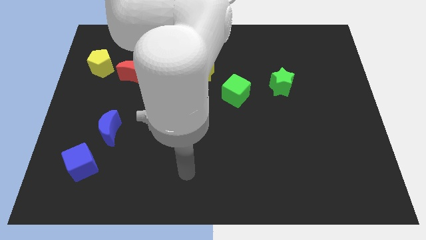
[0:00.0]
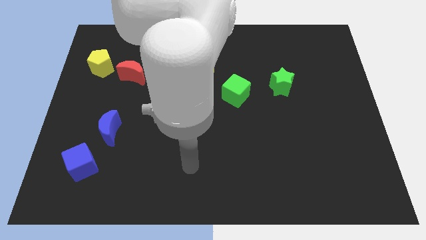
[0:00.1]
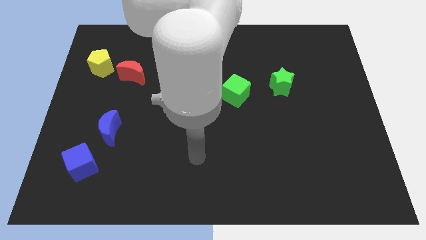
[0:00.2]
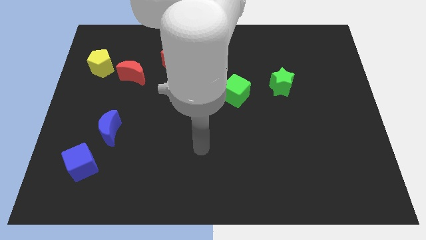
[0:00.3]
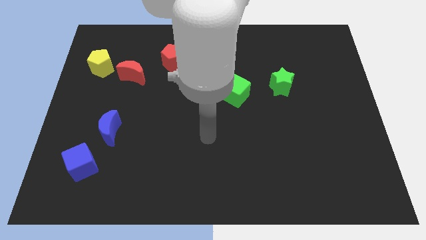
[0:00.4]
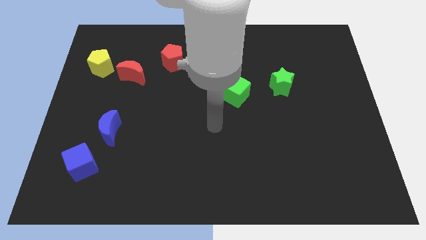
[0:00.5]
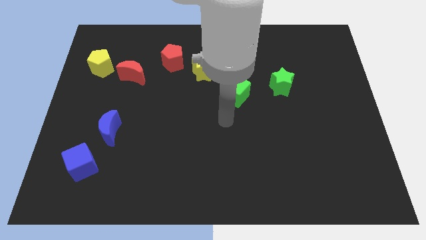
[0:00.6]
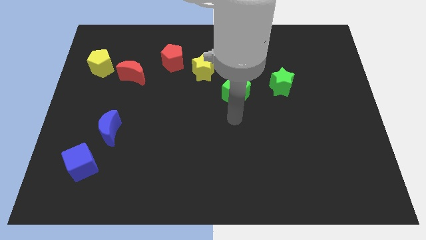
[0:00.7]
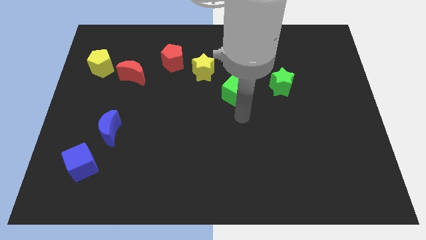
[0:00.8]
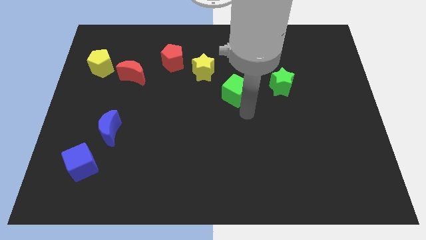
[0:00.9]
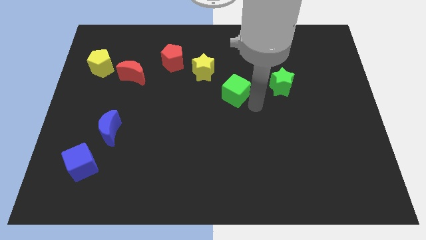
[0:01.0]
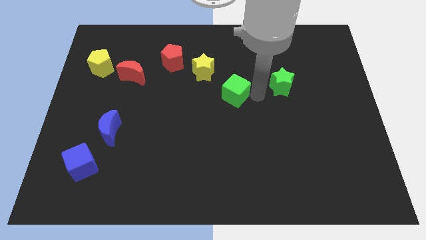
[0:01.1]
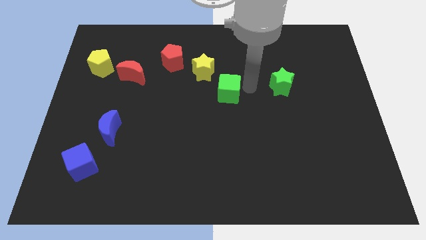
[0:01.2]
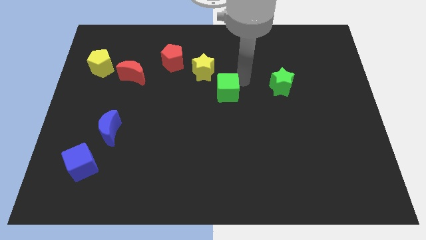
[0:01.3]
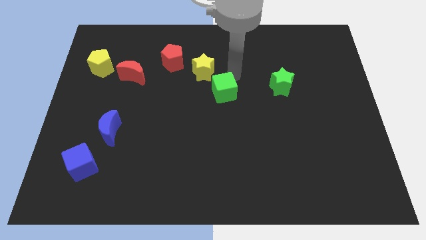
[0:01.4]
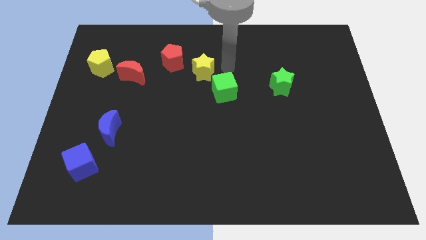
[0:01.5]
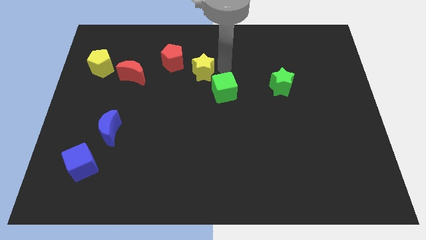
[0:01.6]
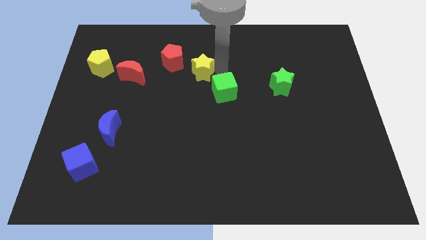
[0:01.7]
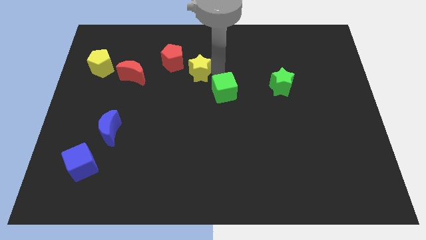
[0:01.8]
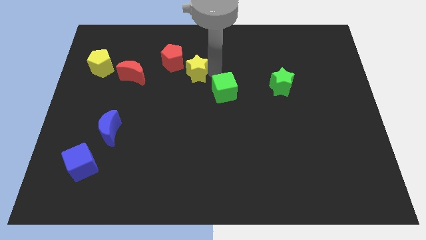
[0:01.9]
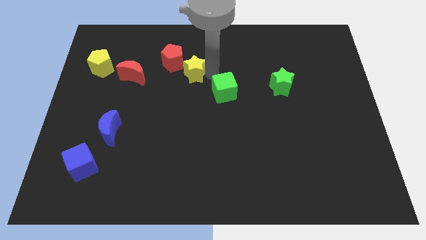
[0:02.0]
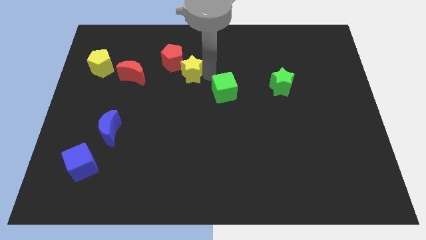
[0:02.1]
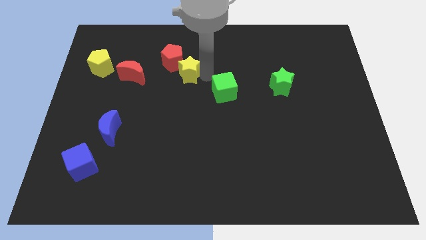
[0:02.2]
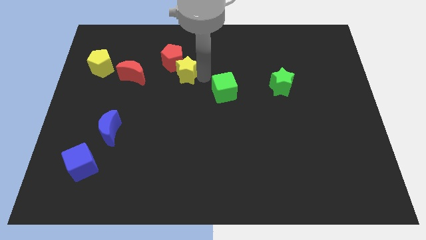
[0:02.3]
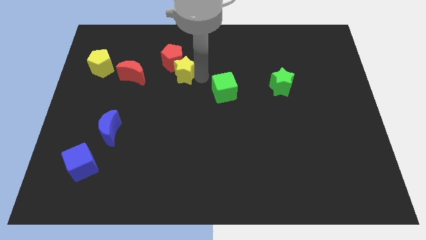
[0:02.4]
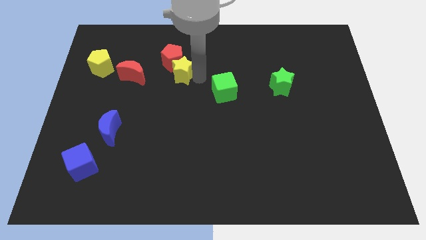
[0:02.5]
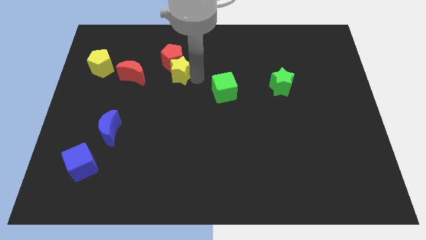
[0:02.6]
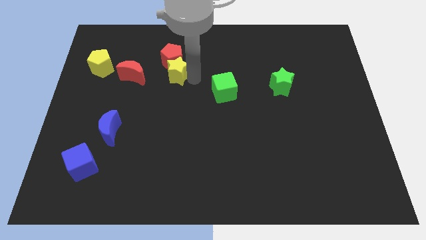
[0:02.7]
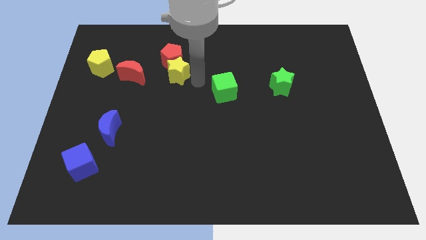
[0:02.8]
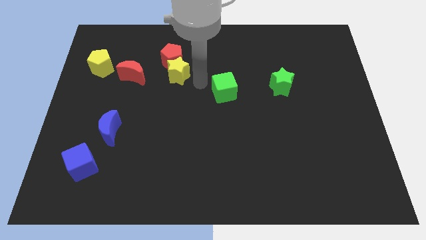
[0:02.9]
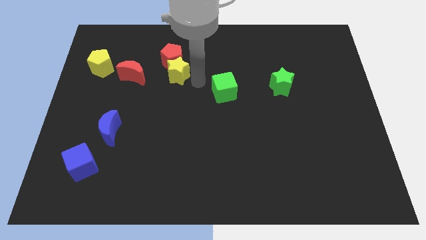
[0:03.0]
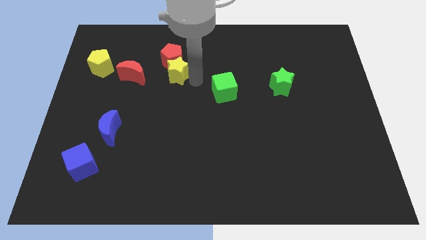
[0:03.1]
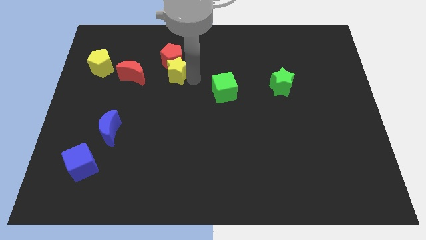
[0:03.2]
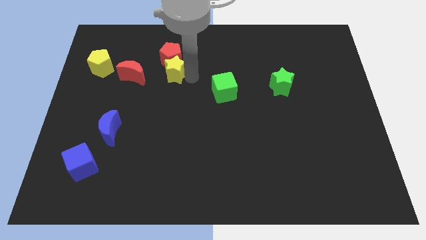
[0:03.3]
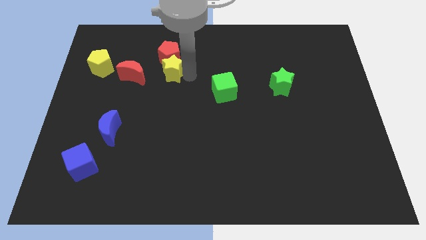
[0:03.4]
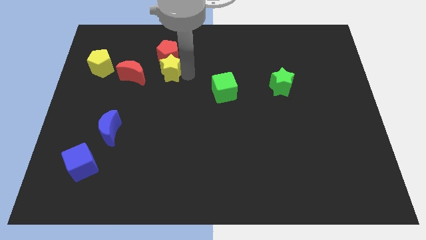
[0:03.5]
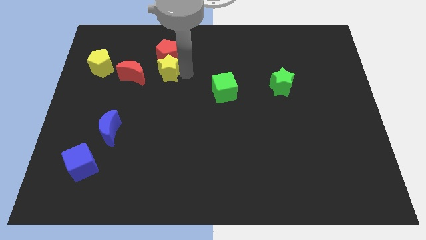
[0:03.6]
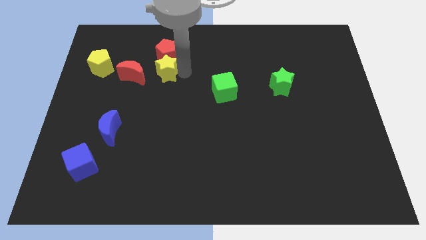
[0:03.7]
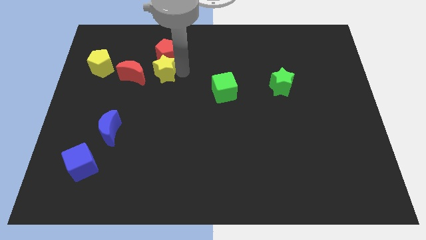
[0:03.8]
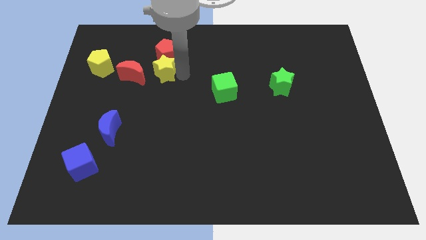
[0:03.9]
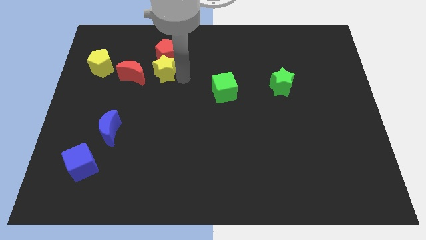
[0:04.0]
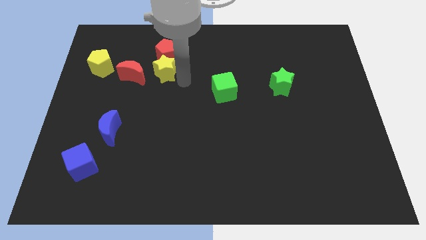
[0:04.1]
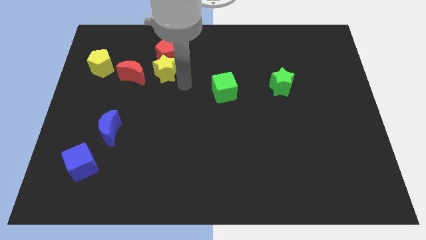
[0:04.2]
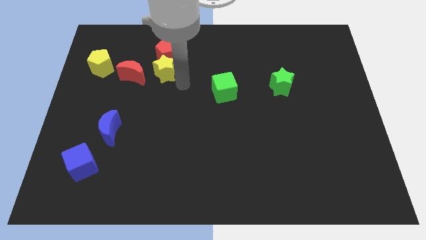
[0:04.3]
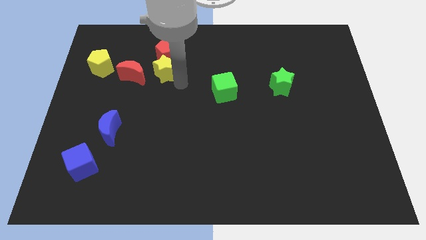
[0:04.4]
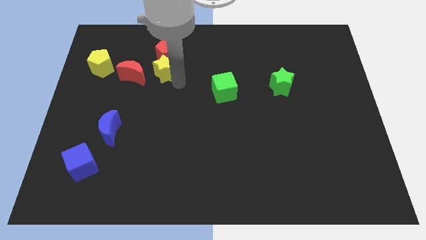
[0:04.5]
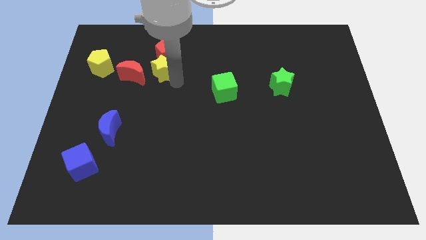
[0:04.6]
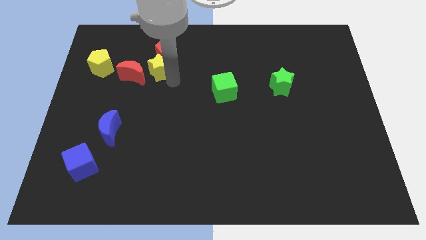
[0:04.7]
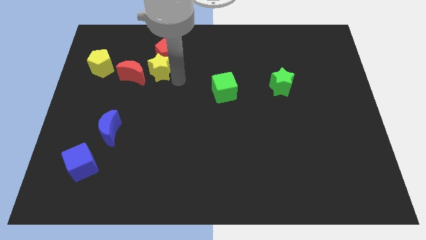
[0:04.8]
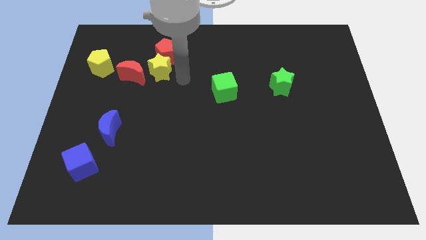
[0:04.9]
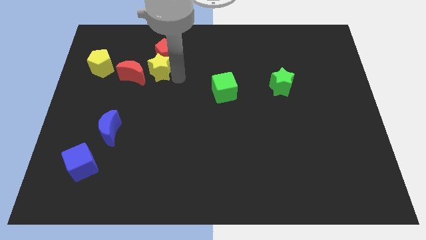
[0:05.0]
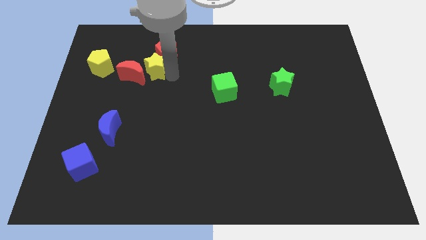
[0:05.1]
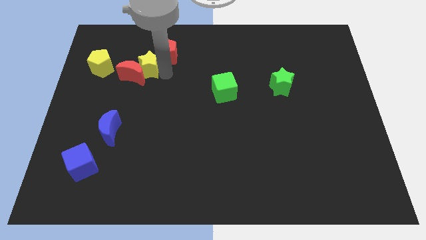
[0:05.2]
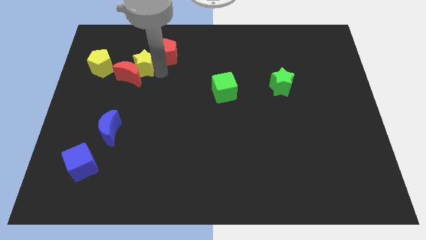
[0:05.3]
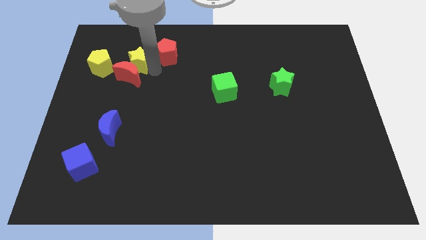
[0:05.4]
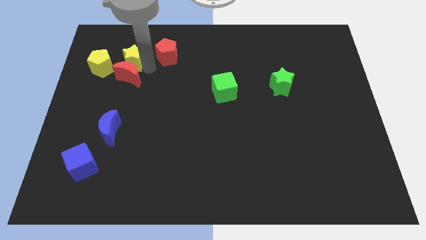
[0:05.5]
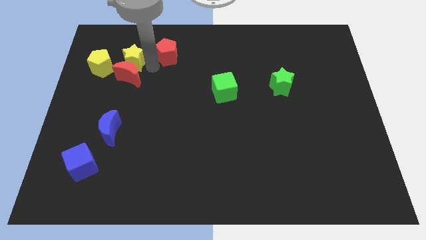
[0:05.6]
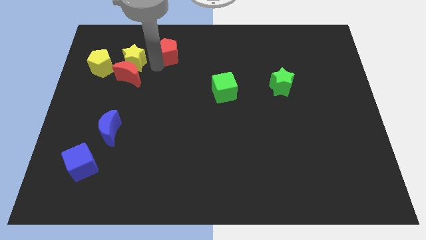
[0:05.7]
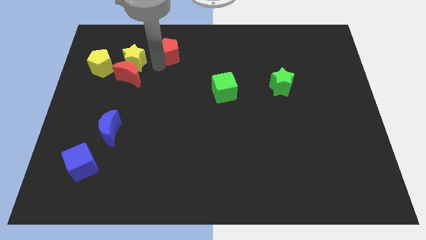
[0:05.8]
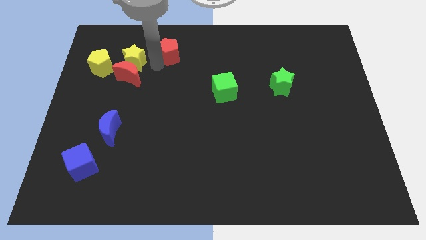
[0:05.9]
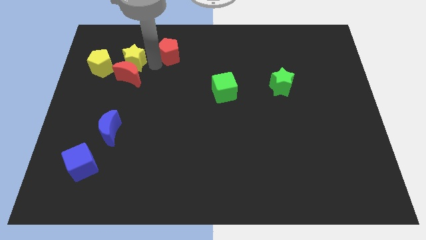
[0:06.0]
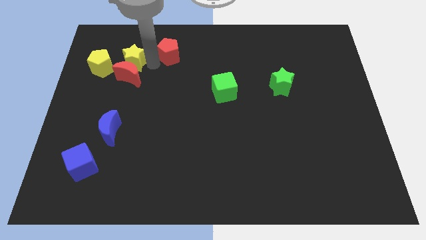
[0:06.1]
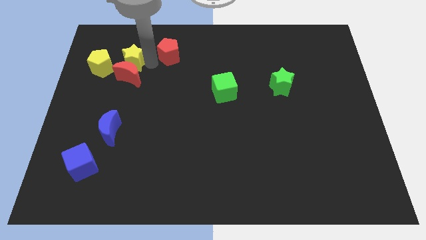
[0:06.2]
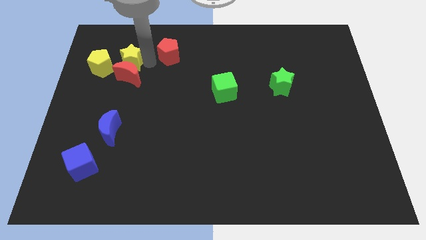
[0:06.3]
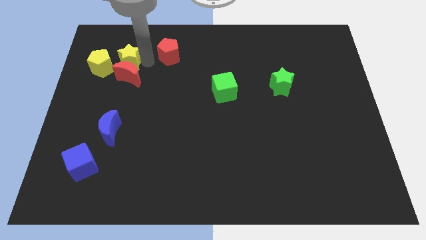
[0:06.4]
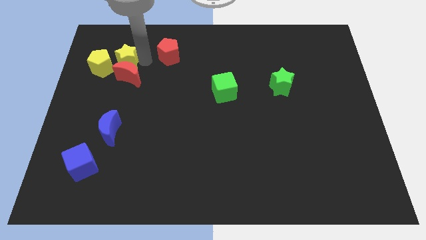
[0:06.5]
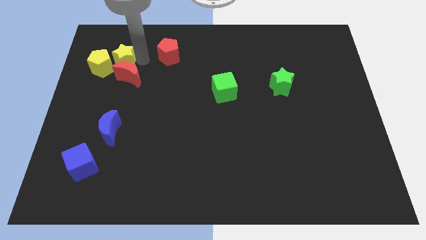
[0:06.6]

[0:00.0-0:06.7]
move the yellow star next to the yellow pentagon
